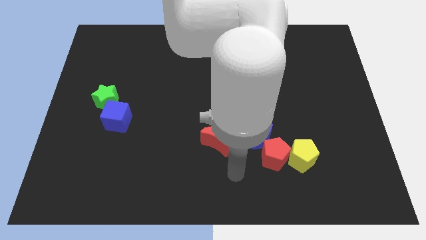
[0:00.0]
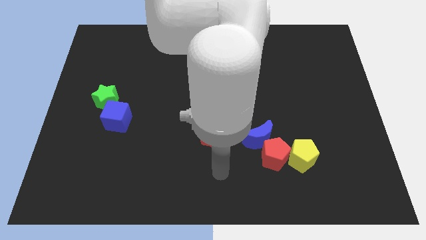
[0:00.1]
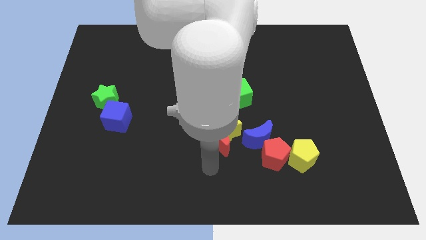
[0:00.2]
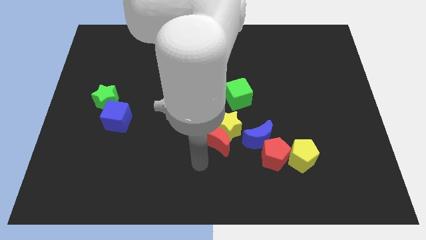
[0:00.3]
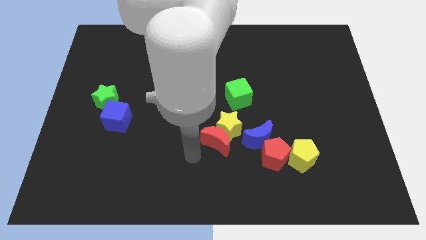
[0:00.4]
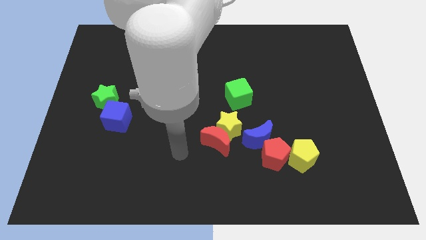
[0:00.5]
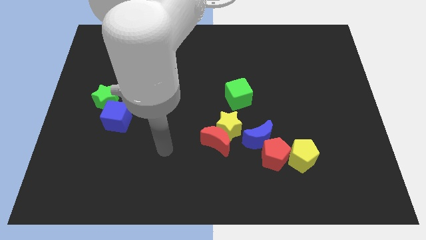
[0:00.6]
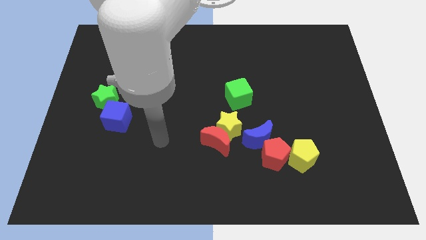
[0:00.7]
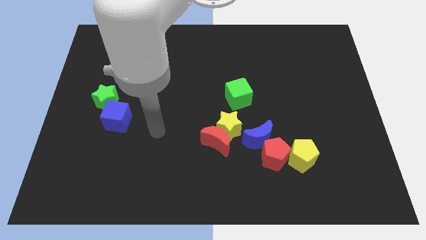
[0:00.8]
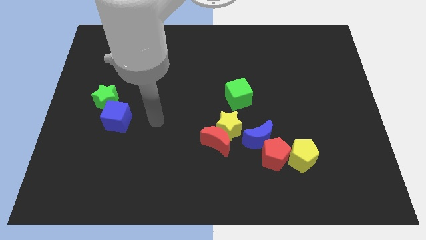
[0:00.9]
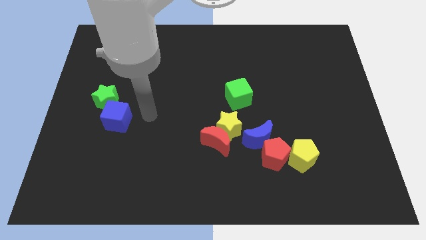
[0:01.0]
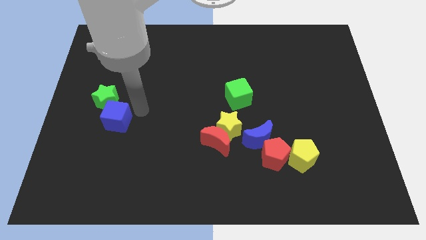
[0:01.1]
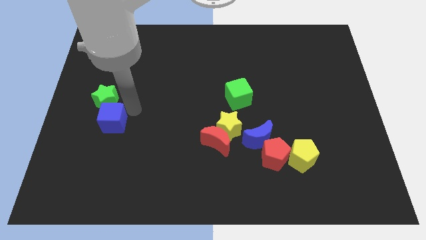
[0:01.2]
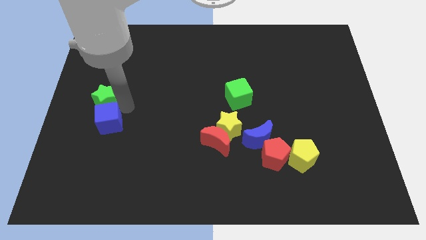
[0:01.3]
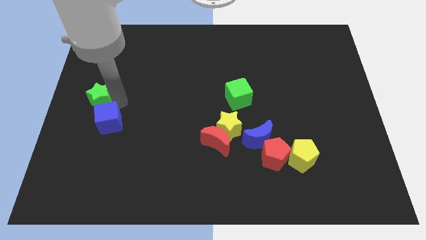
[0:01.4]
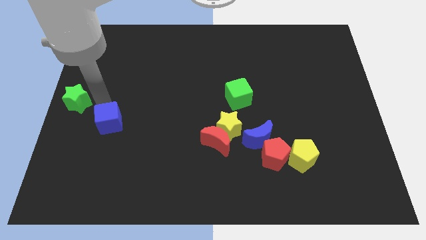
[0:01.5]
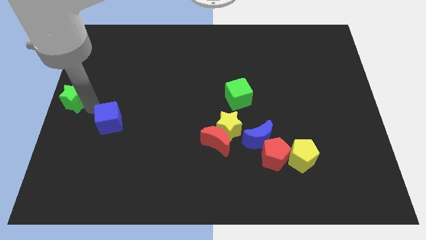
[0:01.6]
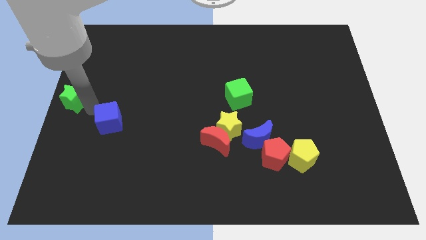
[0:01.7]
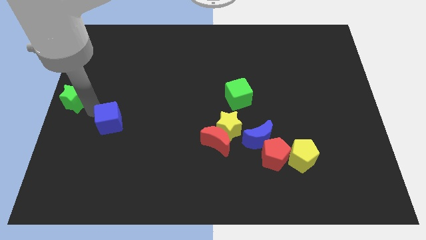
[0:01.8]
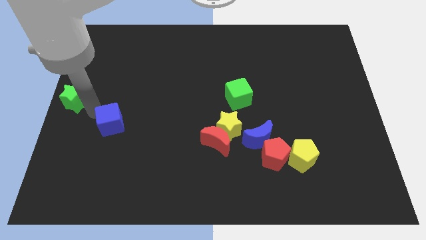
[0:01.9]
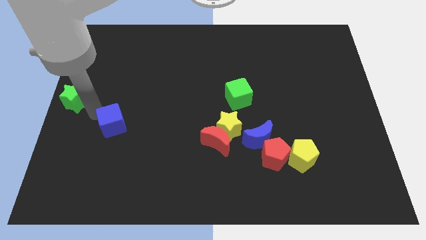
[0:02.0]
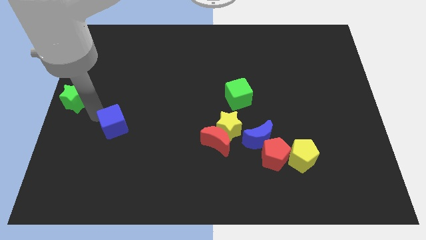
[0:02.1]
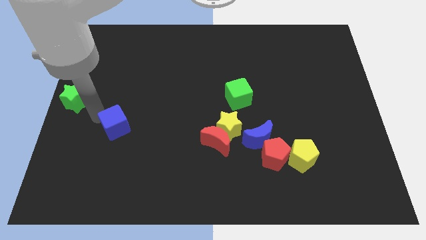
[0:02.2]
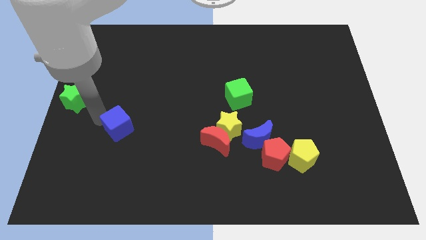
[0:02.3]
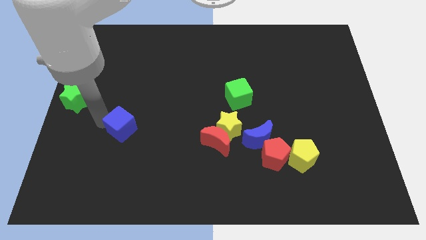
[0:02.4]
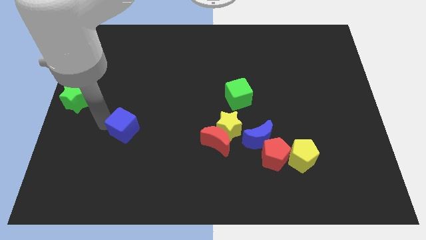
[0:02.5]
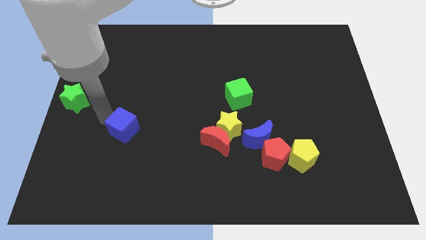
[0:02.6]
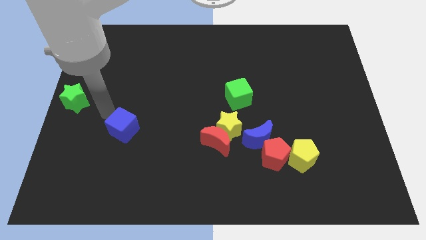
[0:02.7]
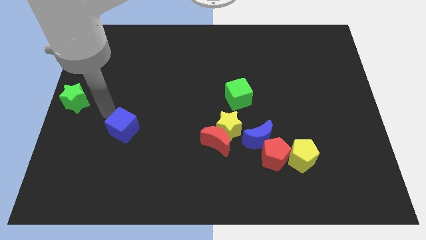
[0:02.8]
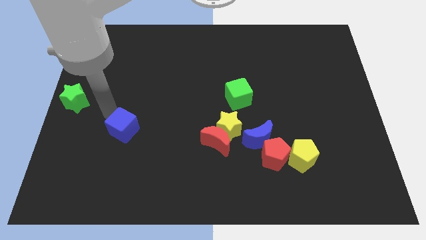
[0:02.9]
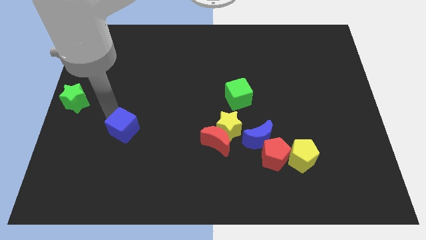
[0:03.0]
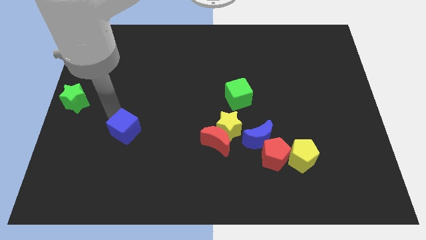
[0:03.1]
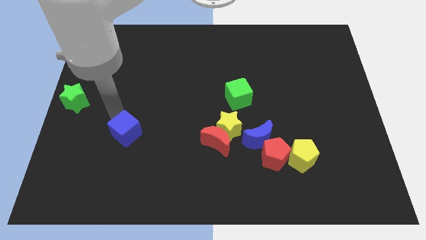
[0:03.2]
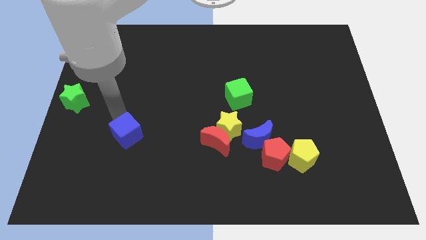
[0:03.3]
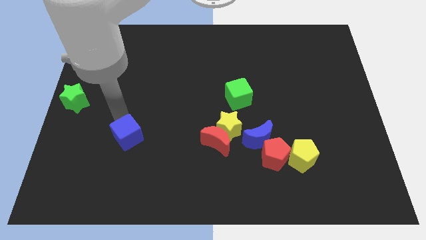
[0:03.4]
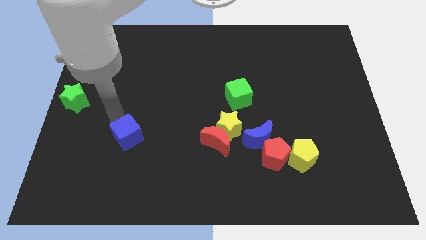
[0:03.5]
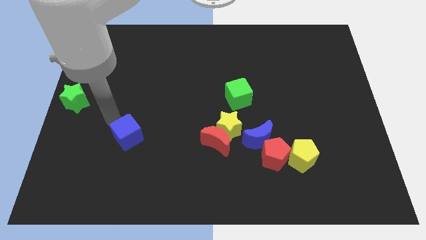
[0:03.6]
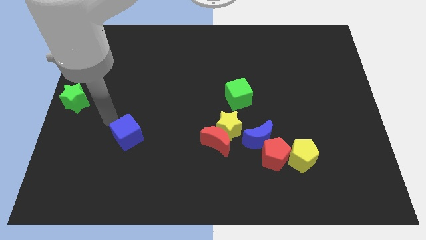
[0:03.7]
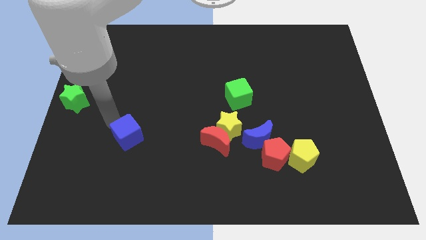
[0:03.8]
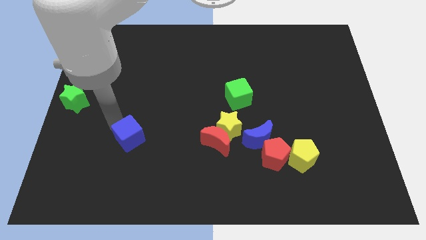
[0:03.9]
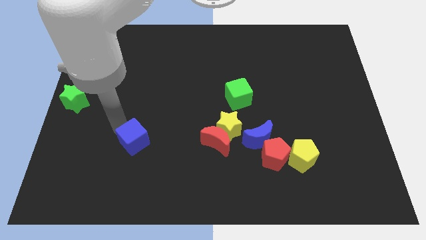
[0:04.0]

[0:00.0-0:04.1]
slightly push the blue cube diagonally down and to the right

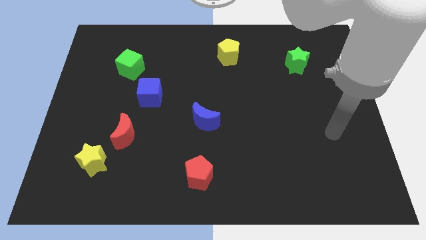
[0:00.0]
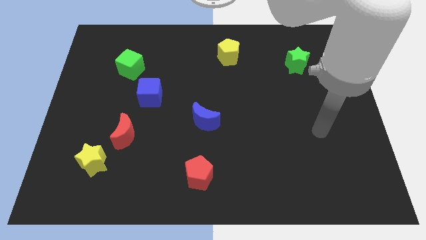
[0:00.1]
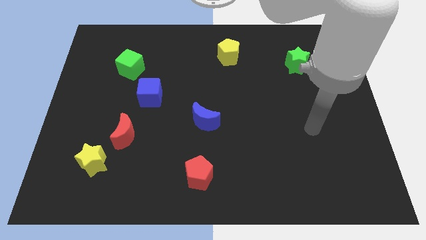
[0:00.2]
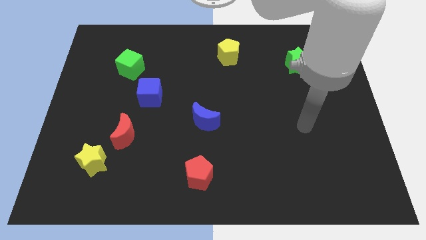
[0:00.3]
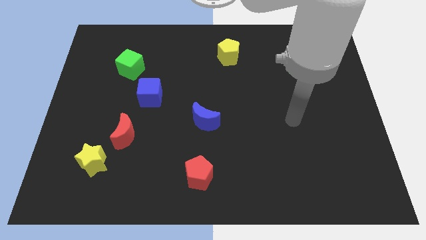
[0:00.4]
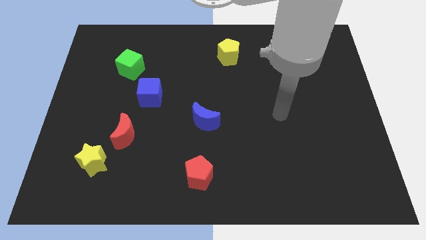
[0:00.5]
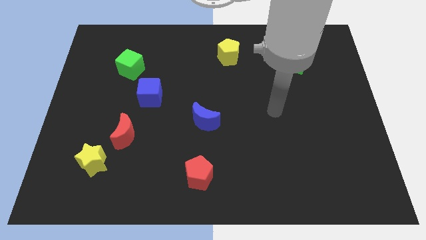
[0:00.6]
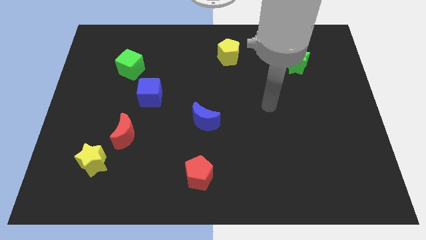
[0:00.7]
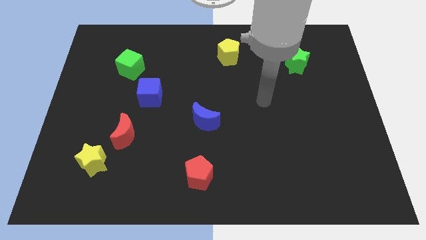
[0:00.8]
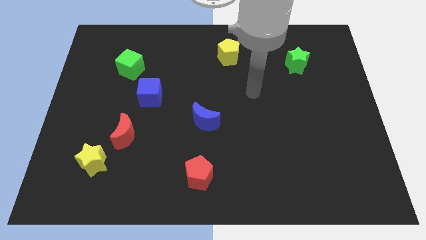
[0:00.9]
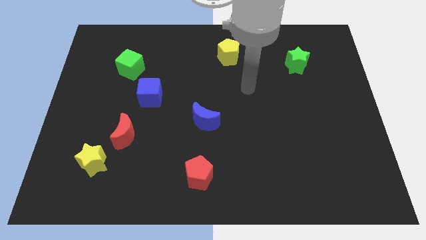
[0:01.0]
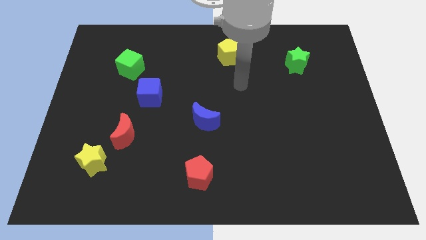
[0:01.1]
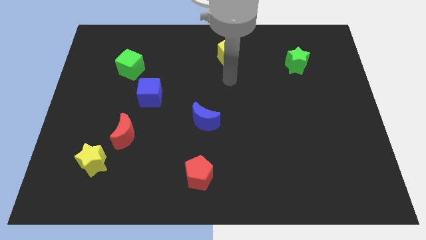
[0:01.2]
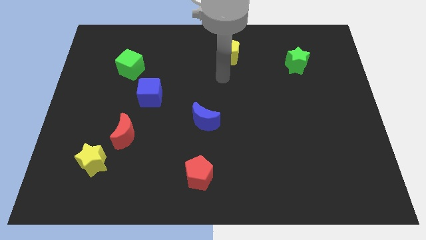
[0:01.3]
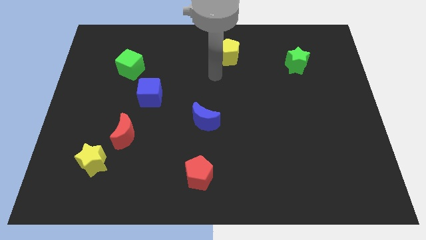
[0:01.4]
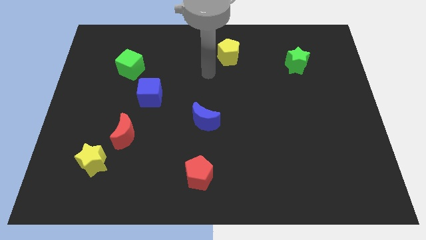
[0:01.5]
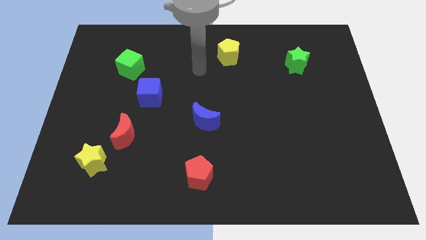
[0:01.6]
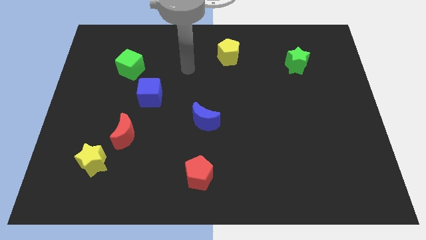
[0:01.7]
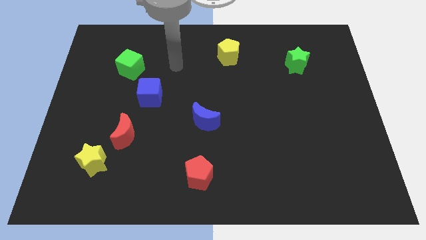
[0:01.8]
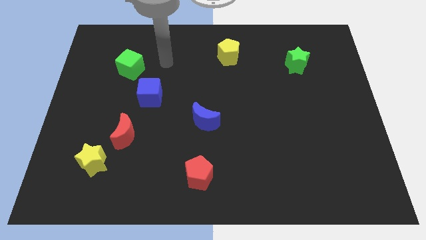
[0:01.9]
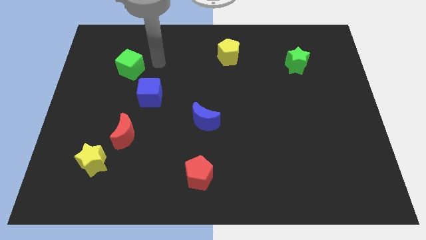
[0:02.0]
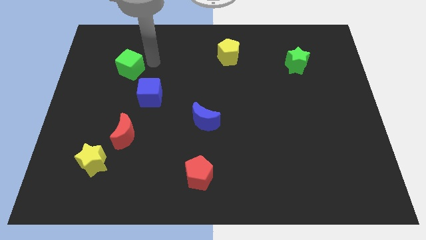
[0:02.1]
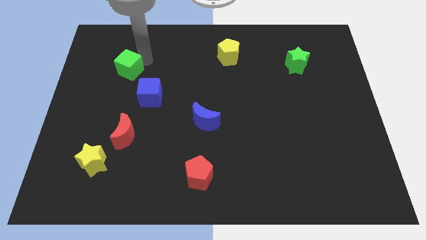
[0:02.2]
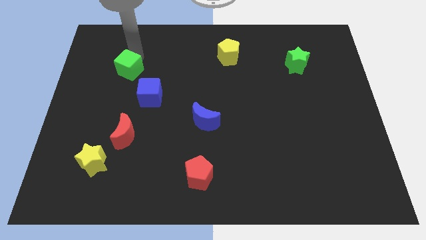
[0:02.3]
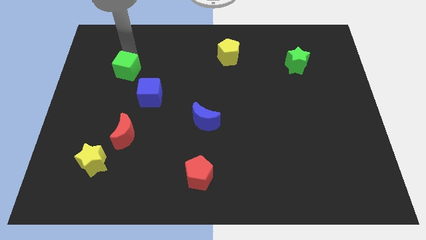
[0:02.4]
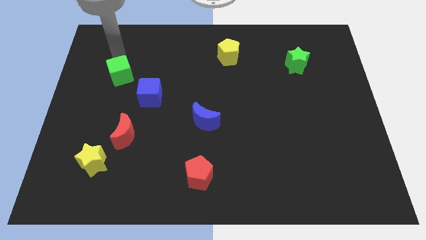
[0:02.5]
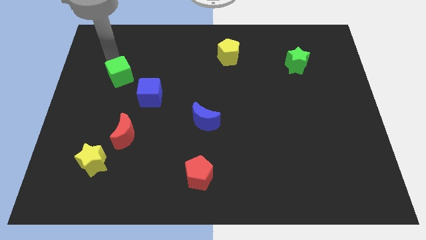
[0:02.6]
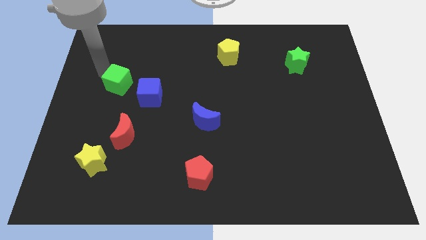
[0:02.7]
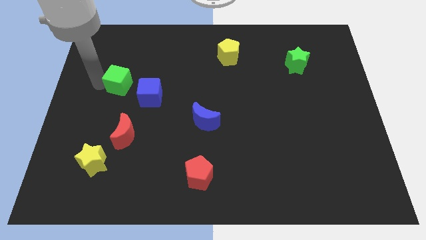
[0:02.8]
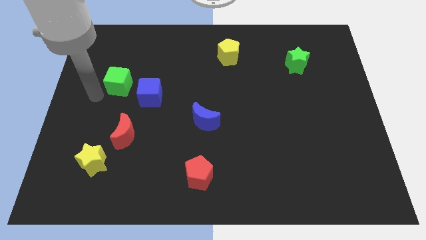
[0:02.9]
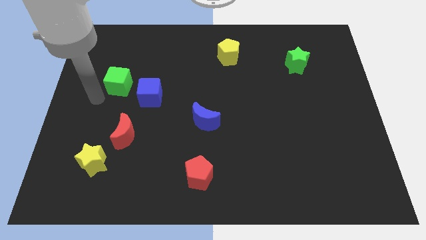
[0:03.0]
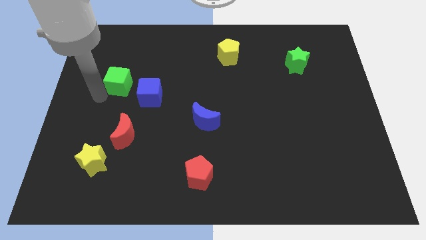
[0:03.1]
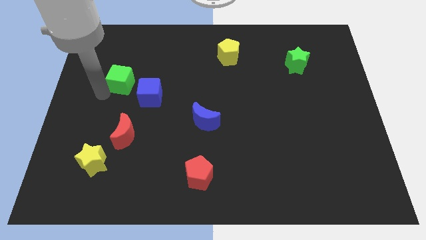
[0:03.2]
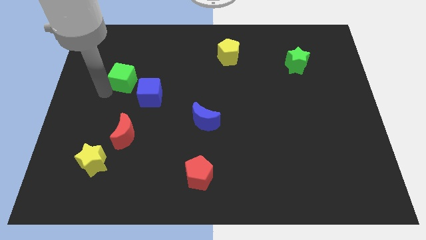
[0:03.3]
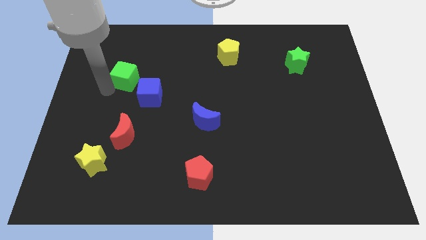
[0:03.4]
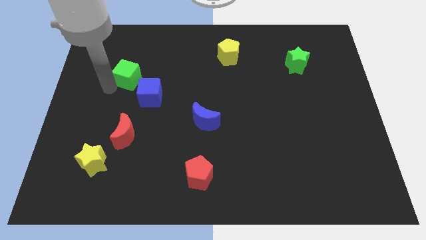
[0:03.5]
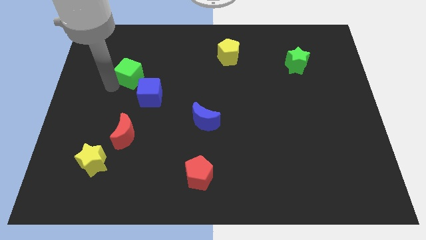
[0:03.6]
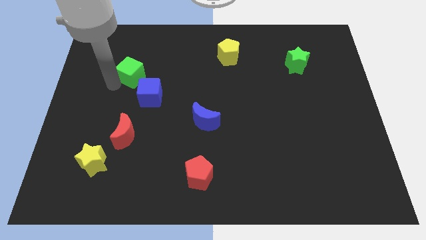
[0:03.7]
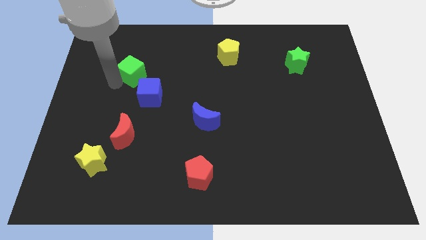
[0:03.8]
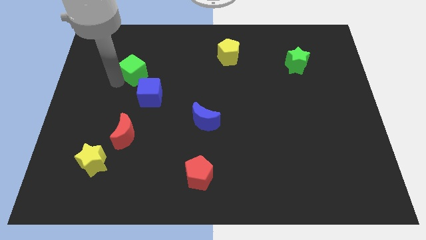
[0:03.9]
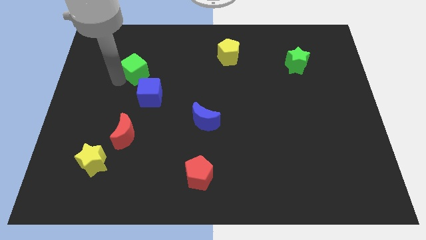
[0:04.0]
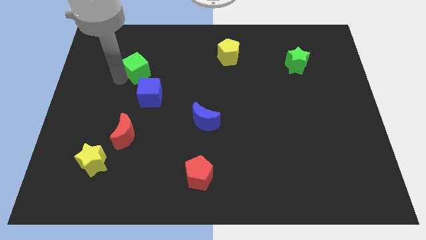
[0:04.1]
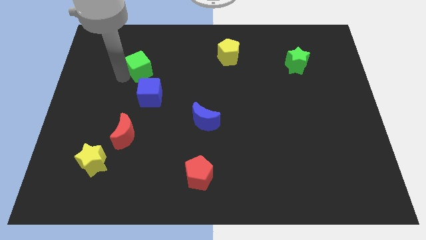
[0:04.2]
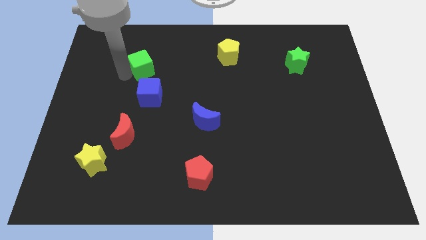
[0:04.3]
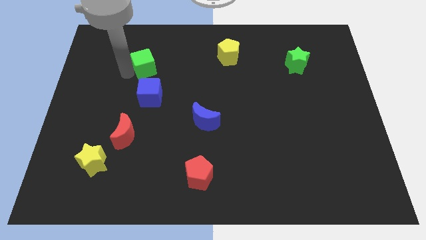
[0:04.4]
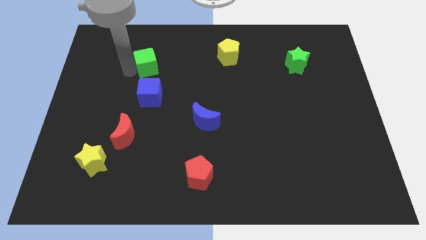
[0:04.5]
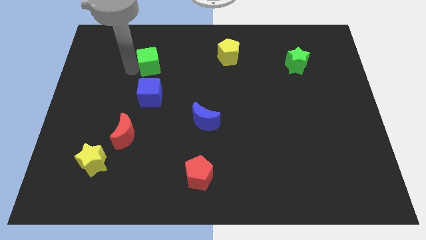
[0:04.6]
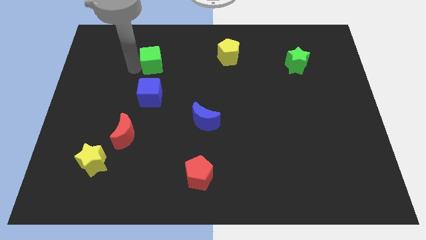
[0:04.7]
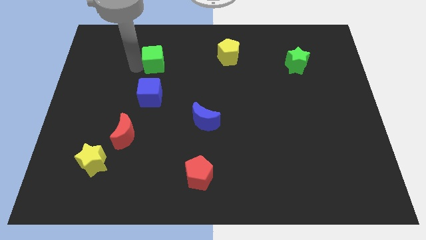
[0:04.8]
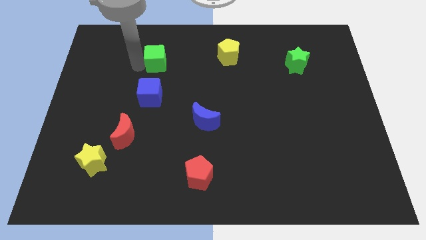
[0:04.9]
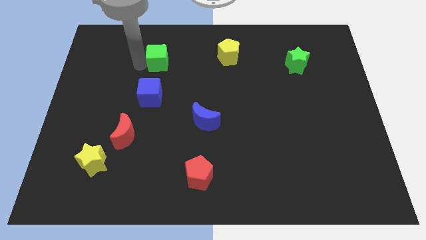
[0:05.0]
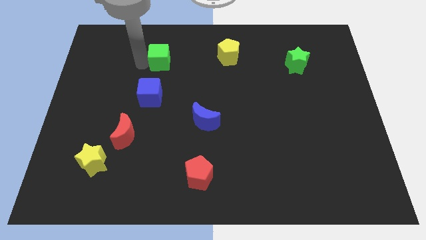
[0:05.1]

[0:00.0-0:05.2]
move the green cube to the right a bit
